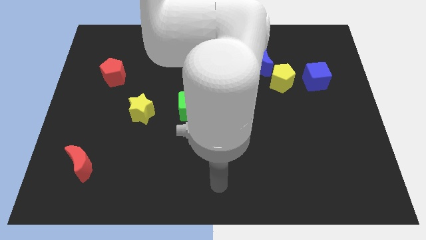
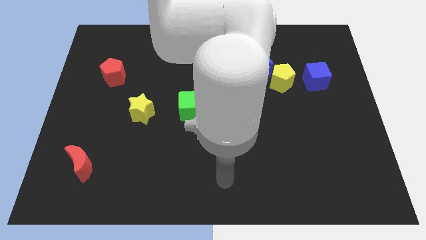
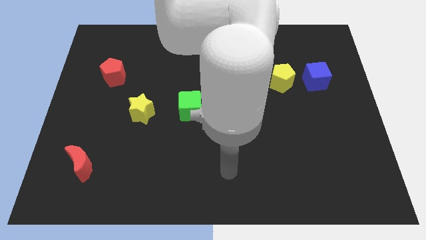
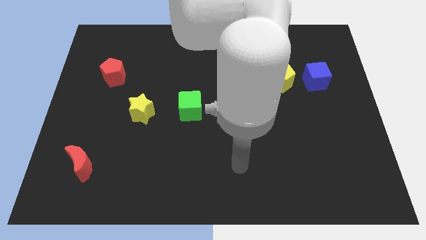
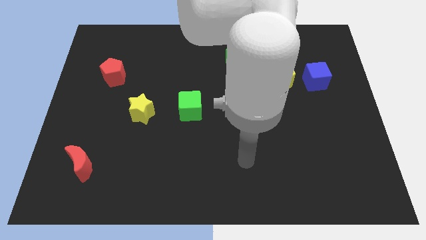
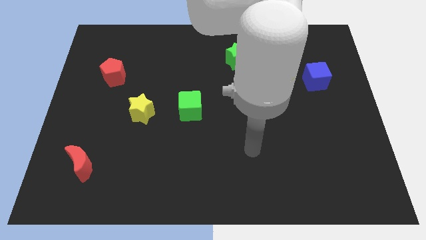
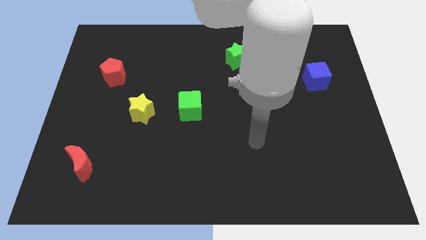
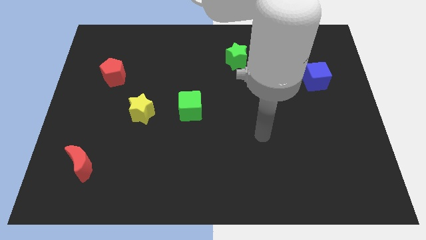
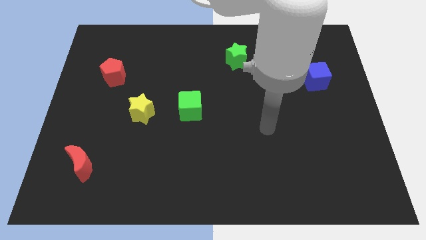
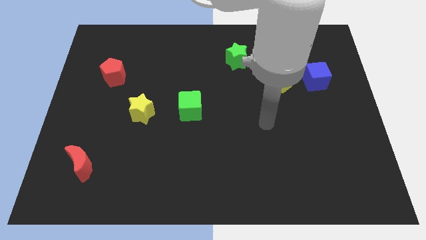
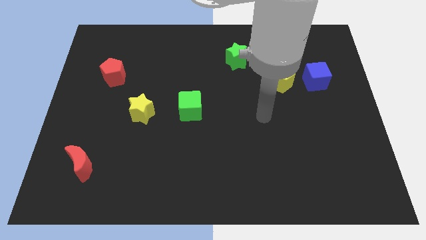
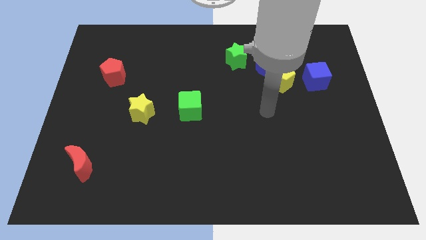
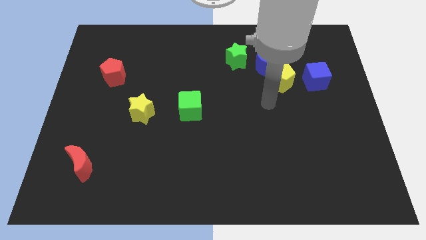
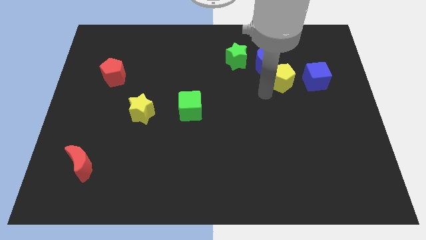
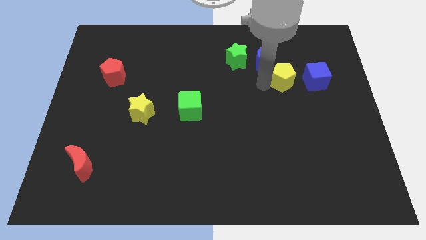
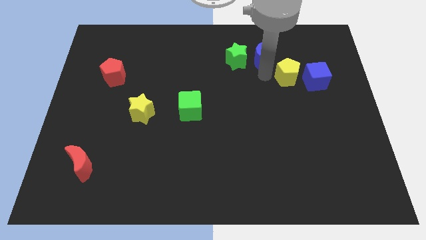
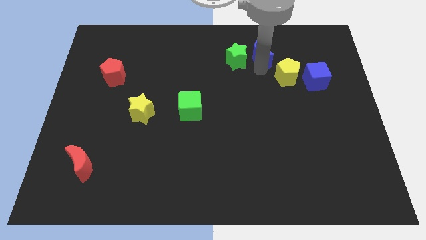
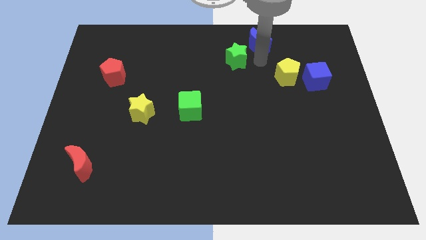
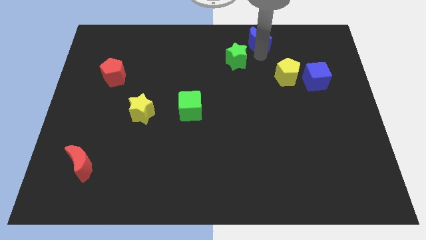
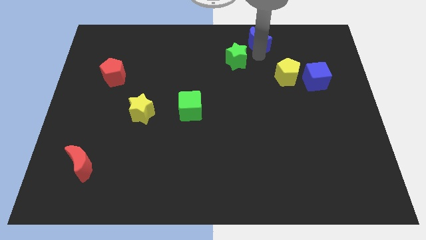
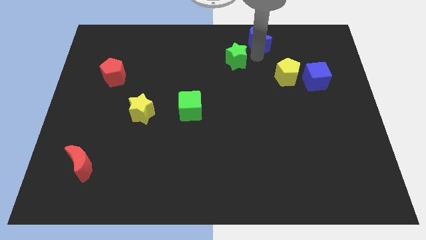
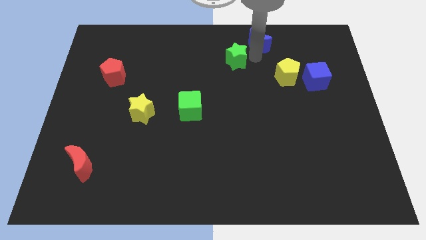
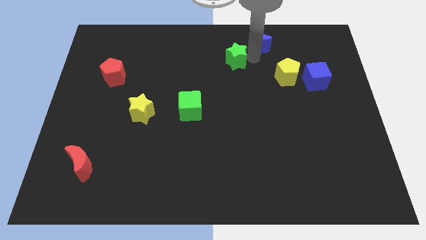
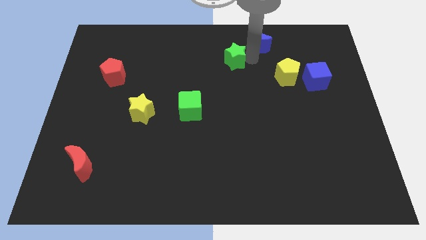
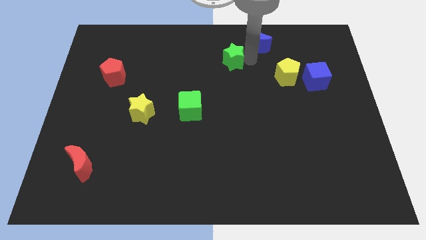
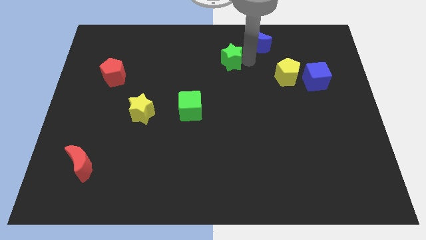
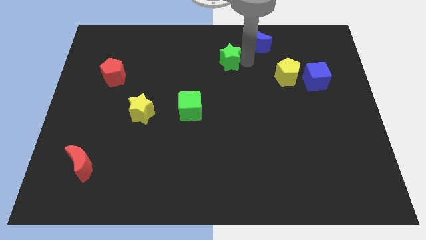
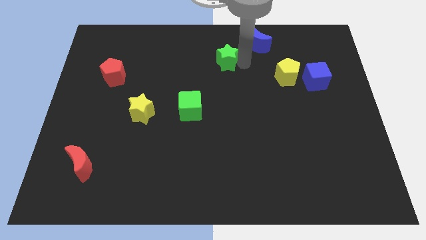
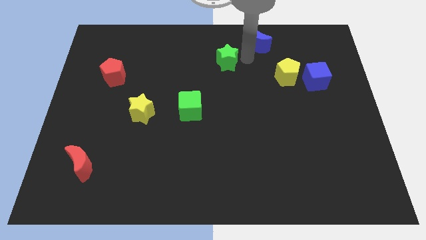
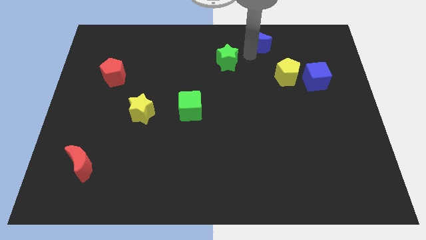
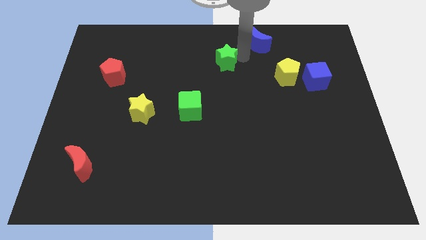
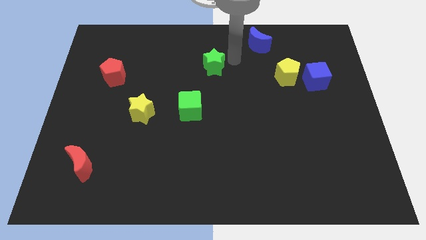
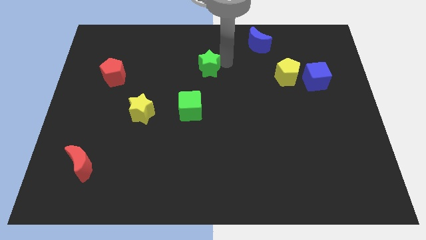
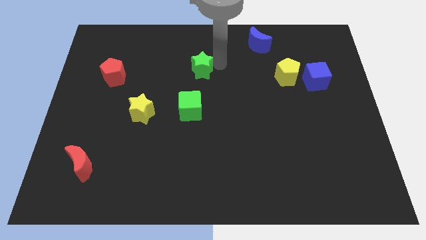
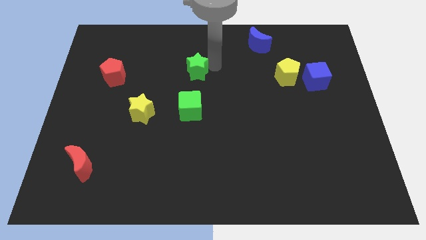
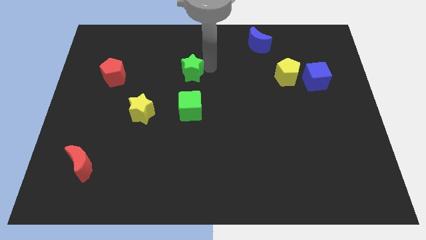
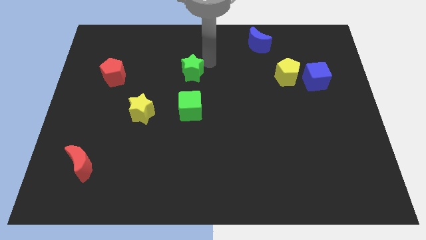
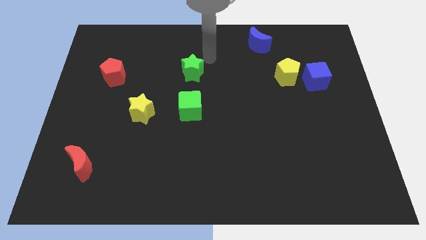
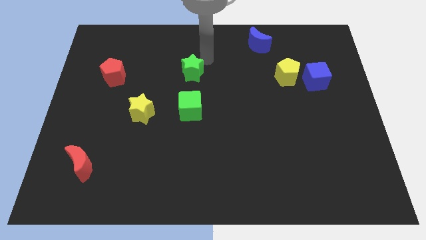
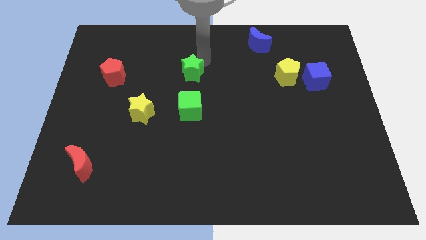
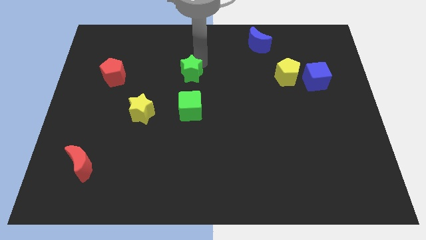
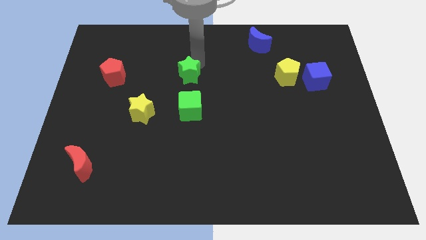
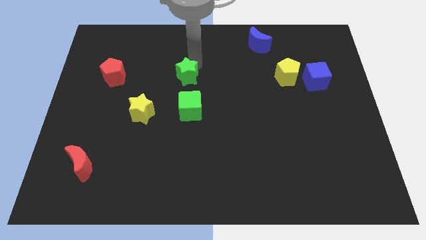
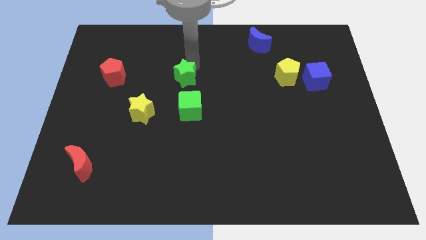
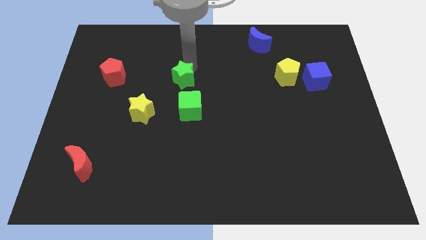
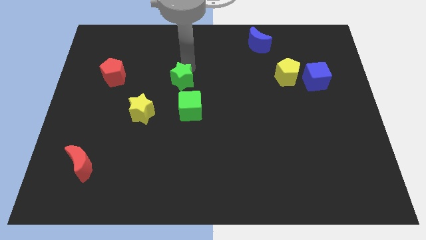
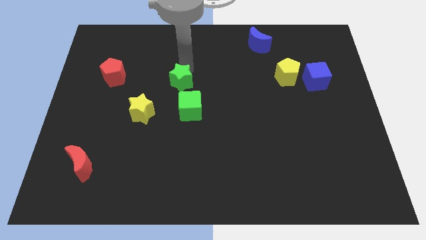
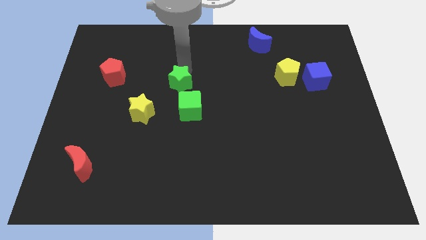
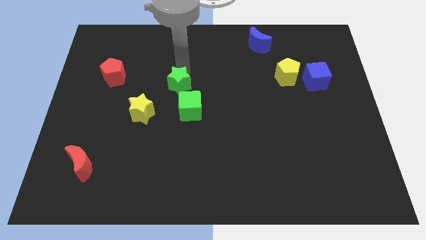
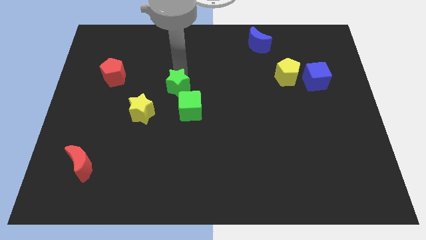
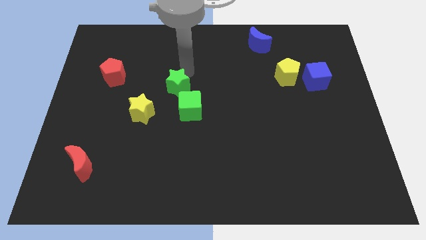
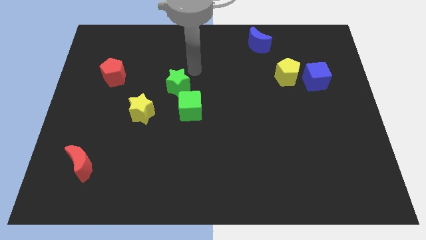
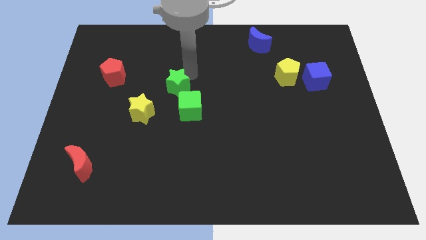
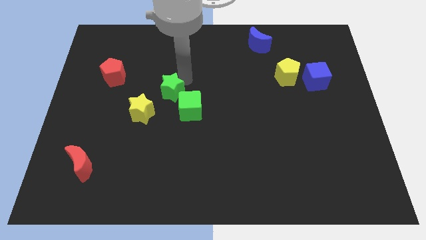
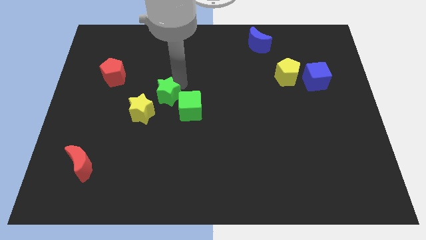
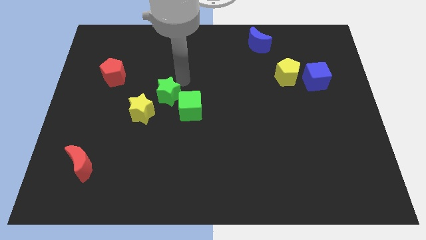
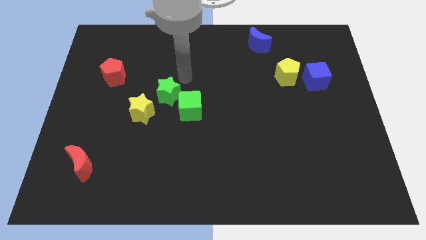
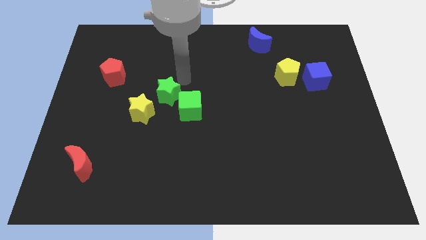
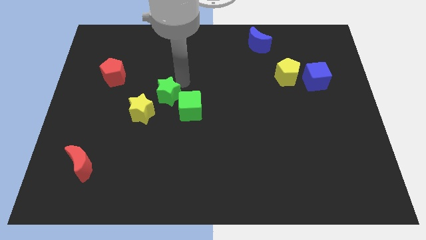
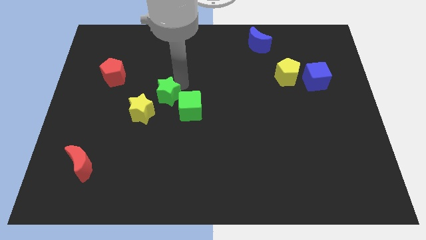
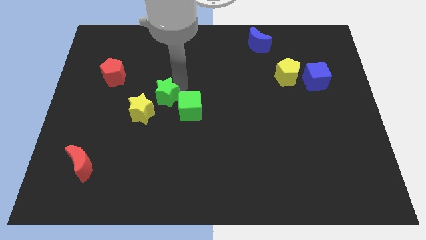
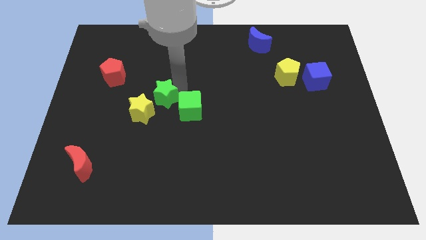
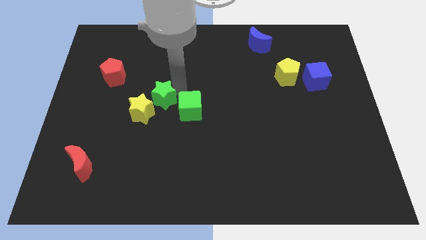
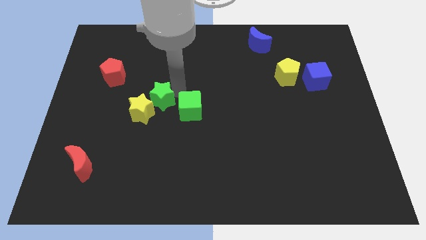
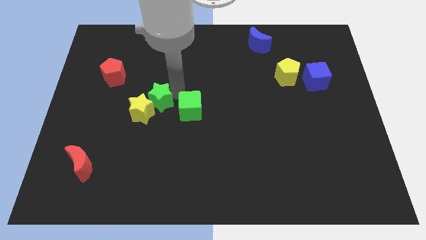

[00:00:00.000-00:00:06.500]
put the green star next to the yellow star
